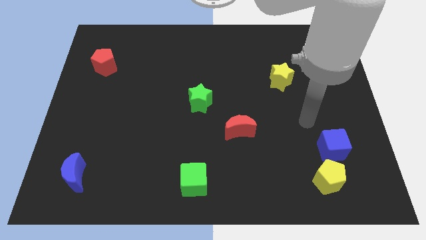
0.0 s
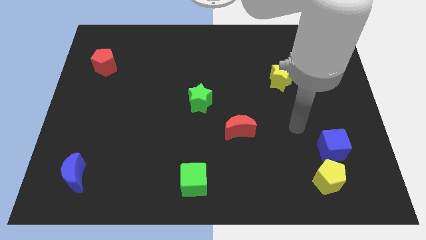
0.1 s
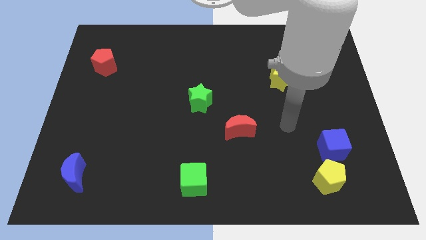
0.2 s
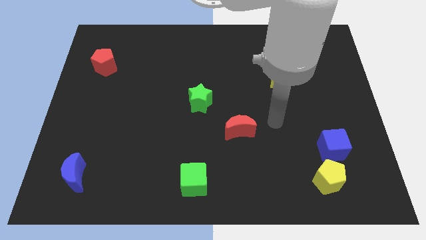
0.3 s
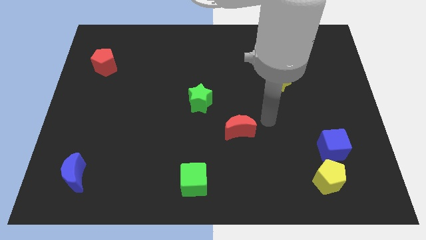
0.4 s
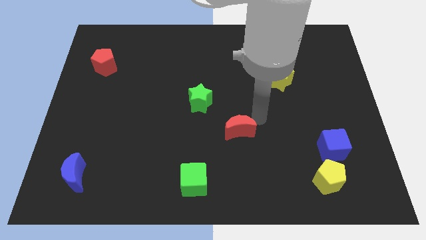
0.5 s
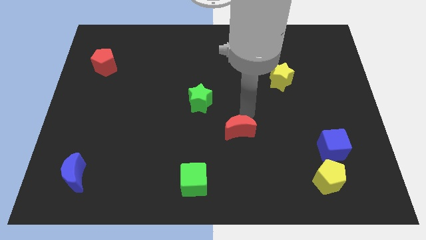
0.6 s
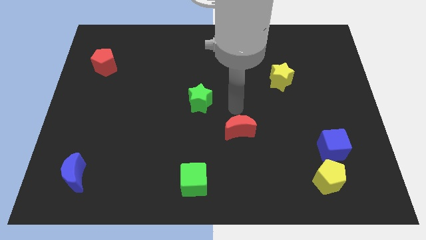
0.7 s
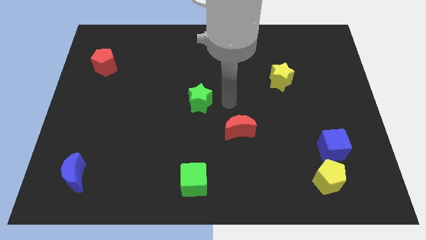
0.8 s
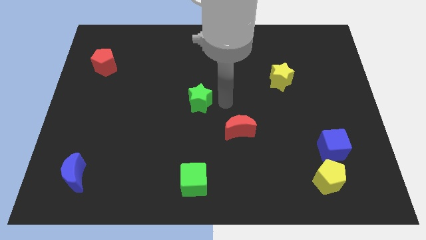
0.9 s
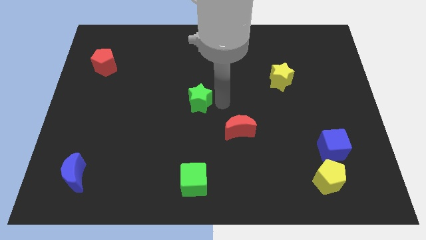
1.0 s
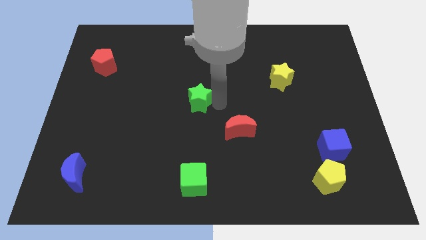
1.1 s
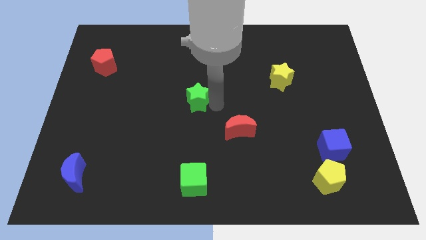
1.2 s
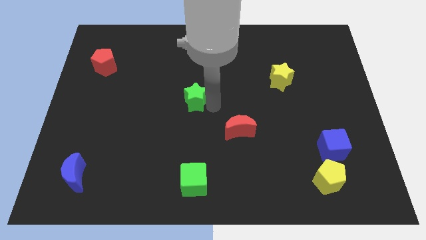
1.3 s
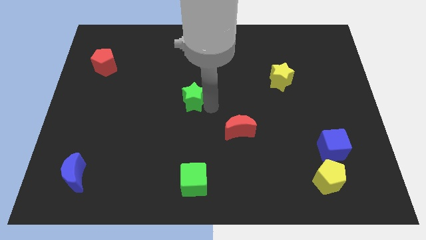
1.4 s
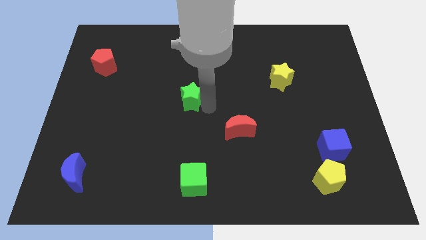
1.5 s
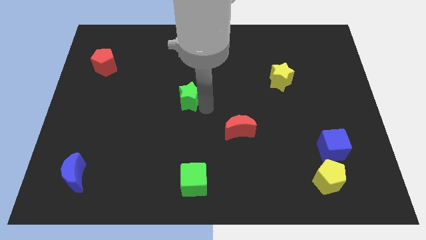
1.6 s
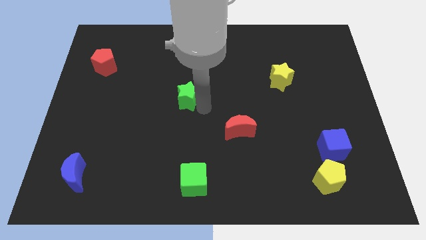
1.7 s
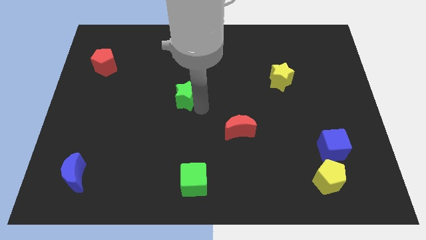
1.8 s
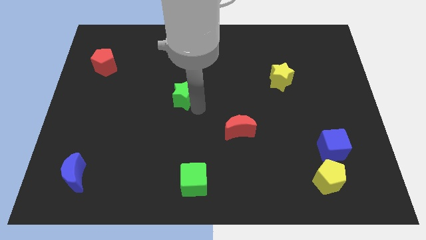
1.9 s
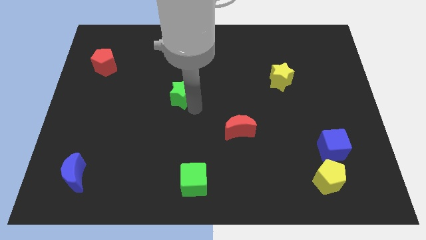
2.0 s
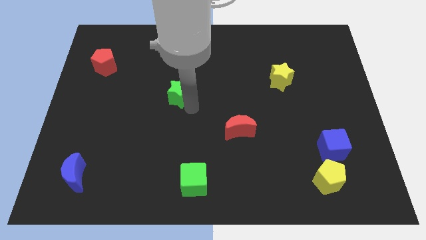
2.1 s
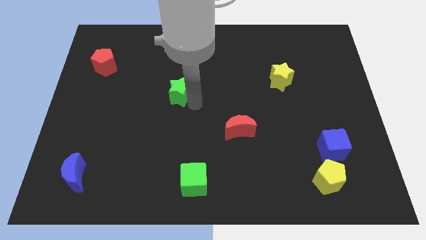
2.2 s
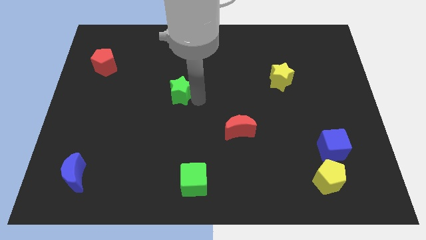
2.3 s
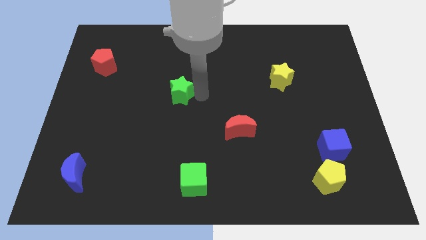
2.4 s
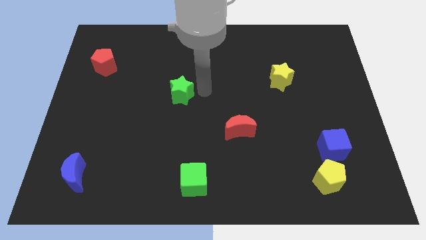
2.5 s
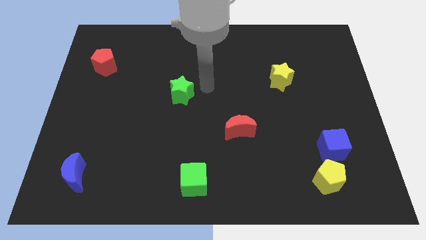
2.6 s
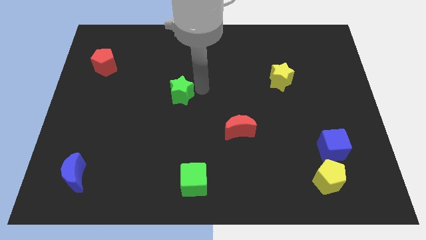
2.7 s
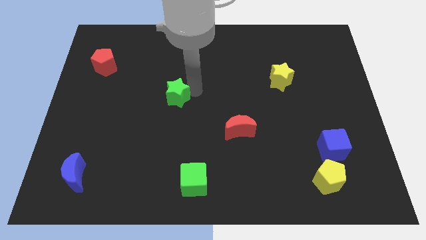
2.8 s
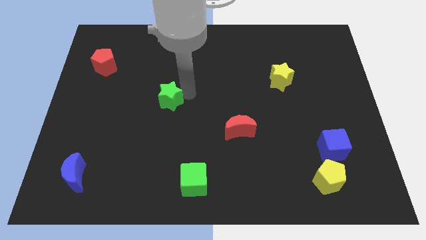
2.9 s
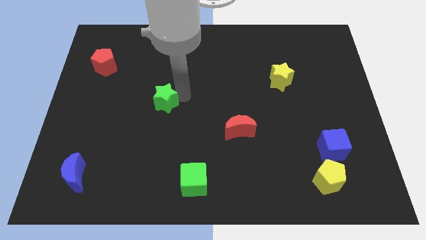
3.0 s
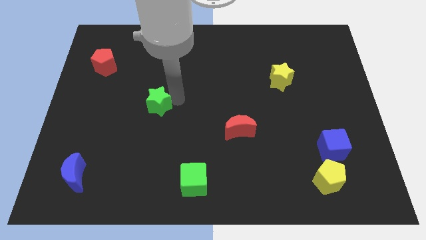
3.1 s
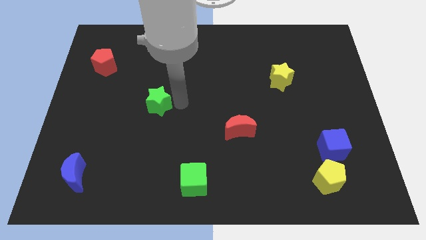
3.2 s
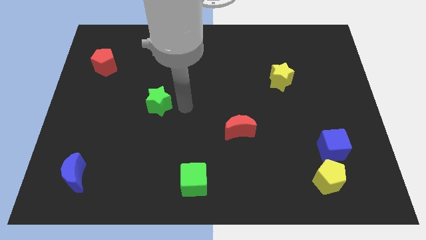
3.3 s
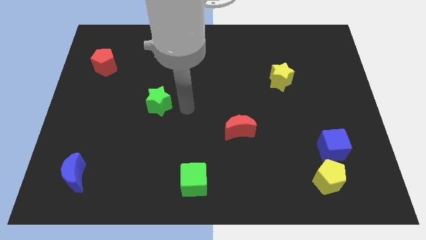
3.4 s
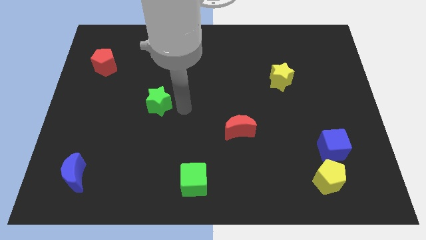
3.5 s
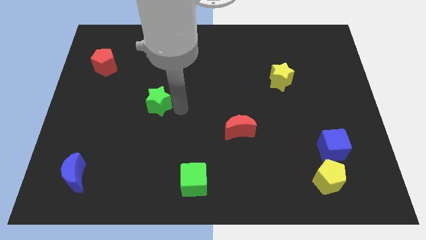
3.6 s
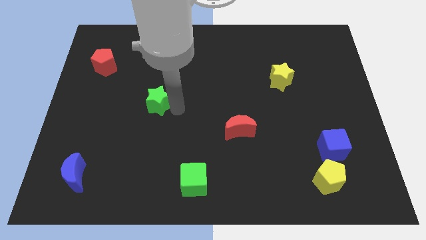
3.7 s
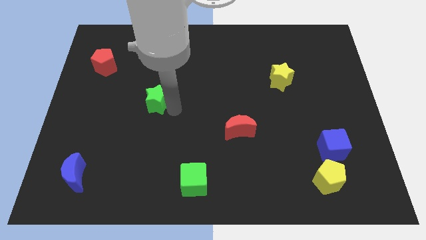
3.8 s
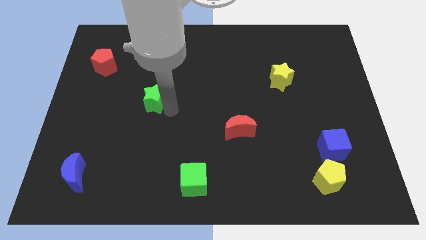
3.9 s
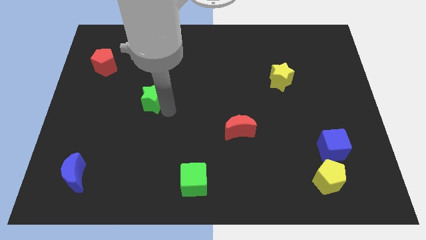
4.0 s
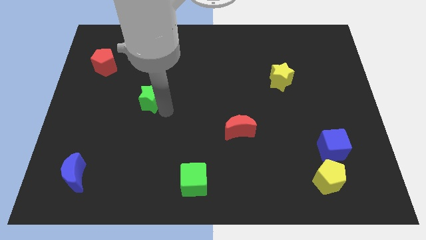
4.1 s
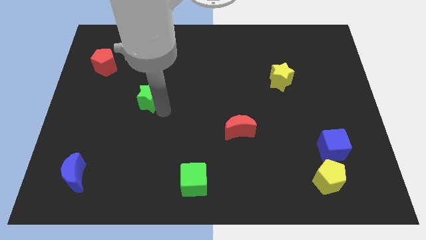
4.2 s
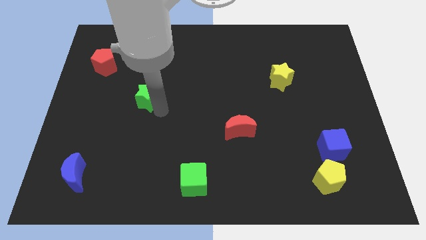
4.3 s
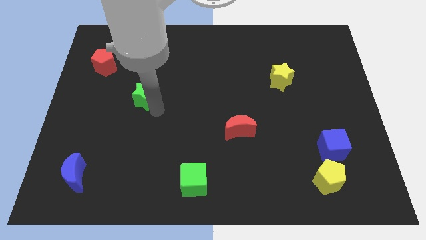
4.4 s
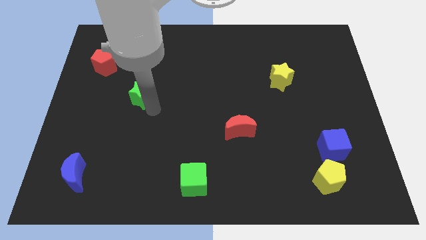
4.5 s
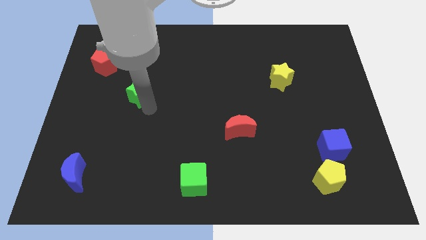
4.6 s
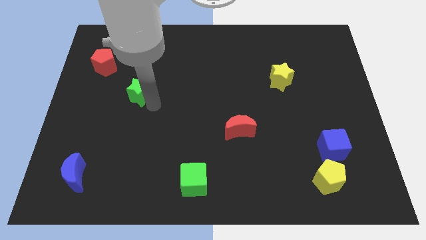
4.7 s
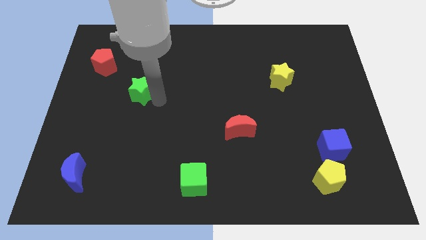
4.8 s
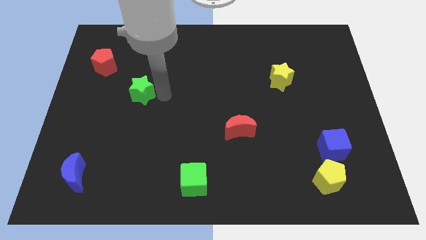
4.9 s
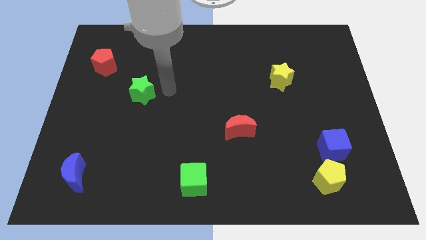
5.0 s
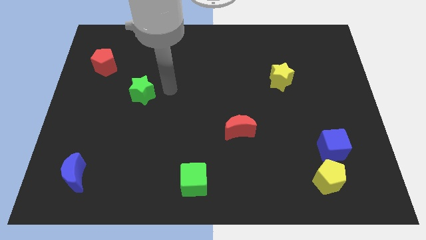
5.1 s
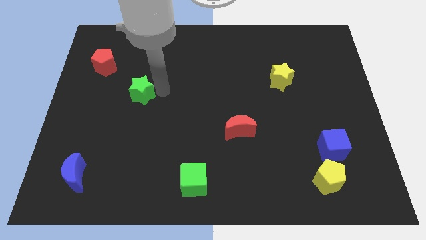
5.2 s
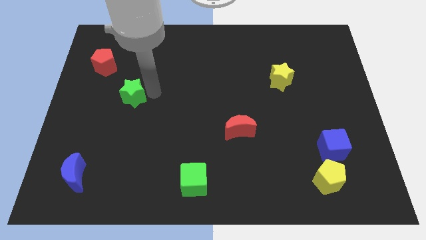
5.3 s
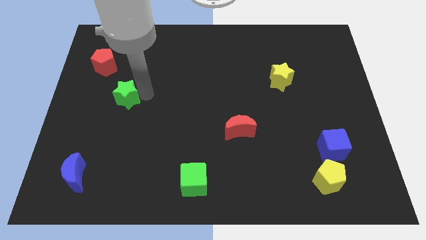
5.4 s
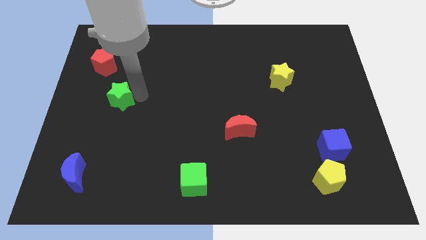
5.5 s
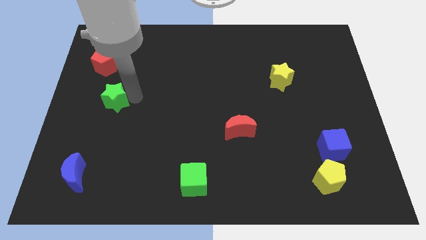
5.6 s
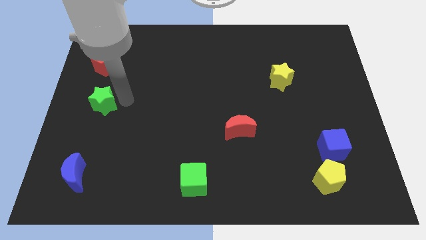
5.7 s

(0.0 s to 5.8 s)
slide the green star to the left side

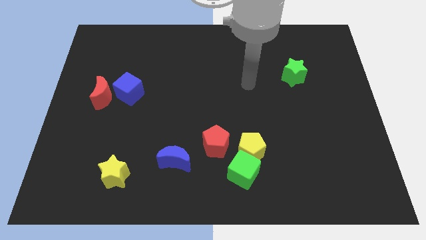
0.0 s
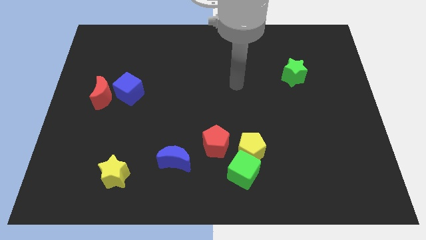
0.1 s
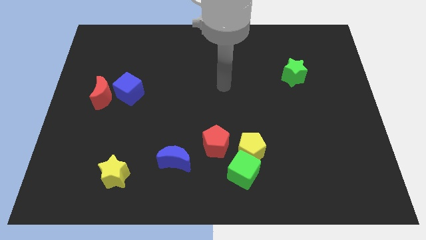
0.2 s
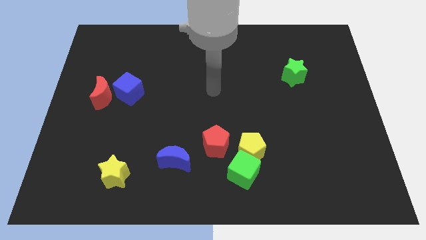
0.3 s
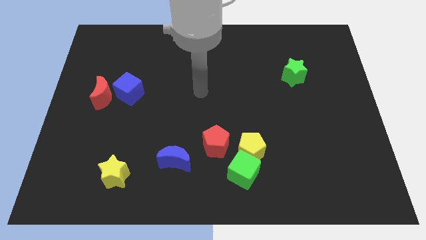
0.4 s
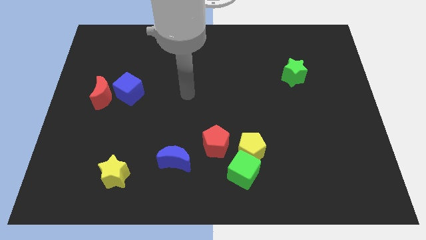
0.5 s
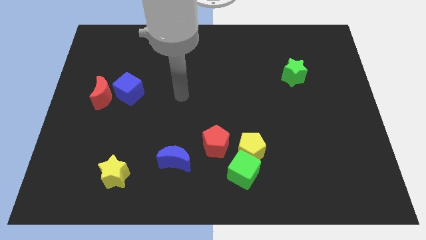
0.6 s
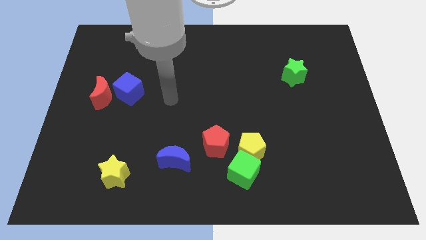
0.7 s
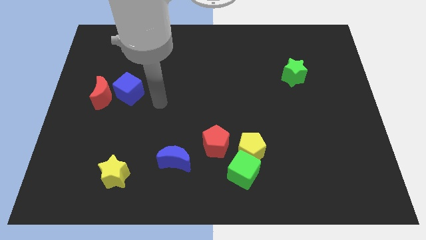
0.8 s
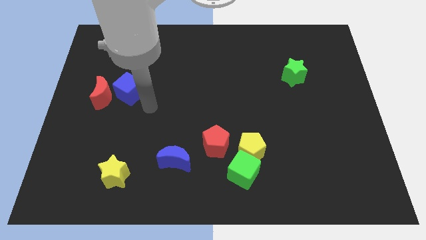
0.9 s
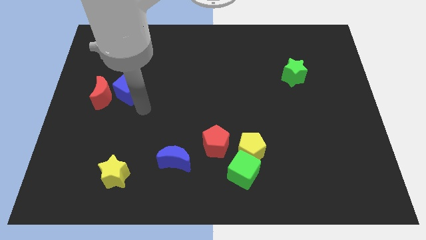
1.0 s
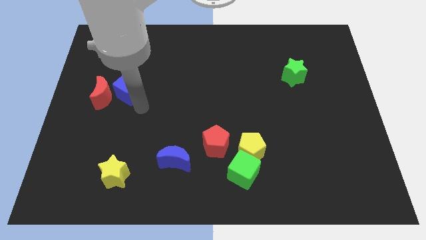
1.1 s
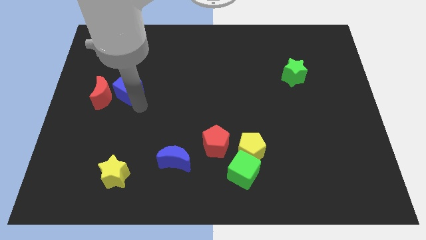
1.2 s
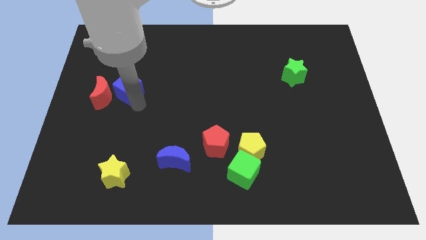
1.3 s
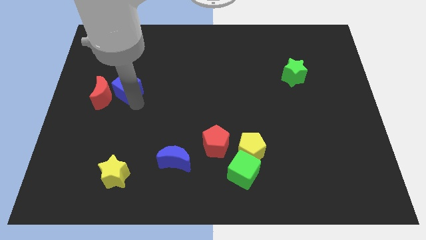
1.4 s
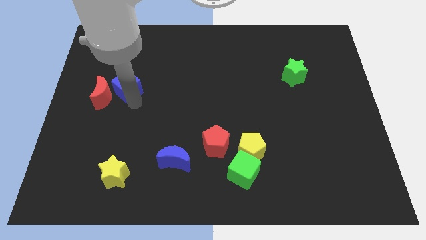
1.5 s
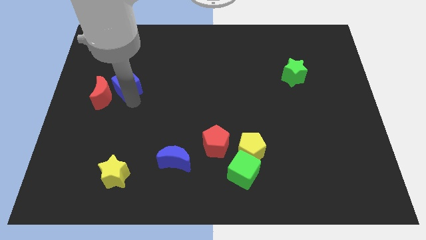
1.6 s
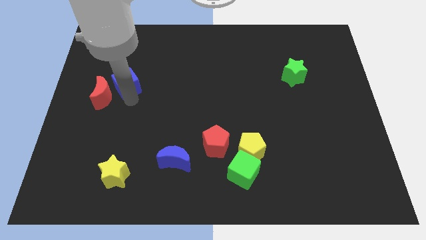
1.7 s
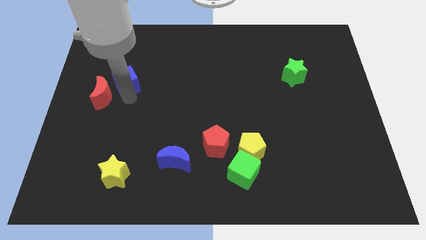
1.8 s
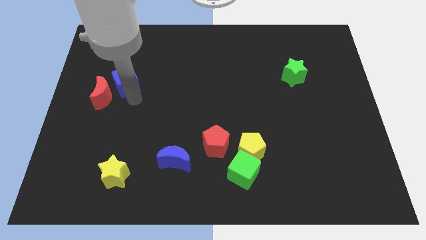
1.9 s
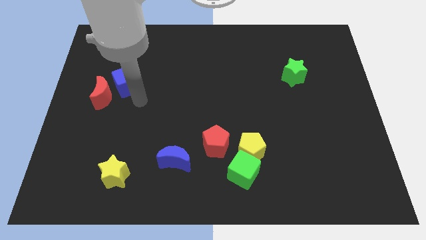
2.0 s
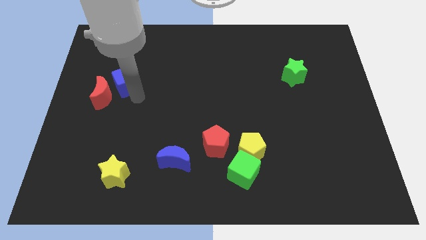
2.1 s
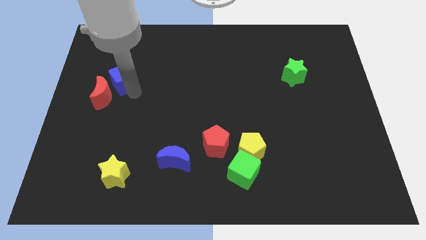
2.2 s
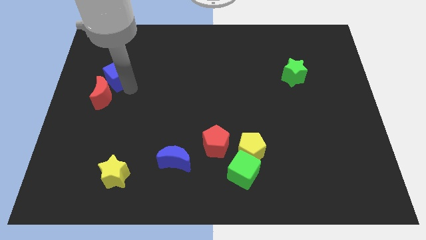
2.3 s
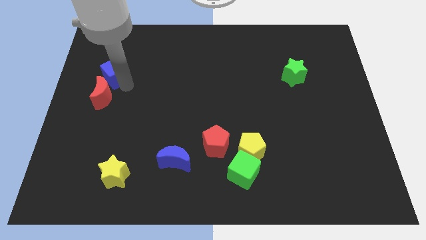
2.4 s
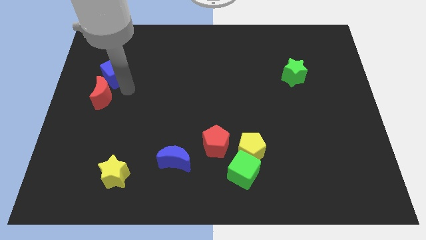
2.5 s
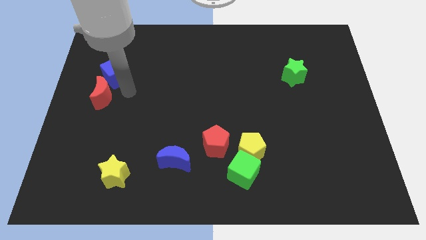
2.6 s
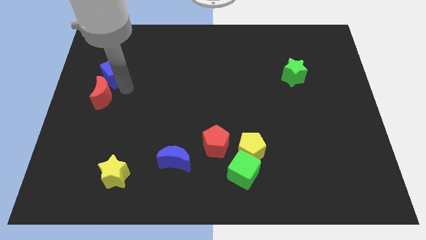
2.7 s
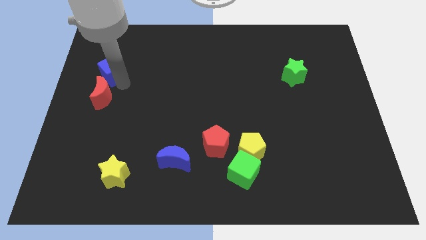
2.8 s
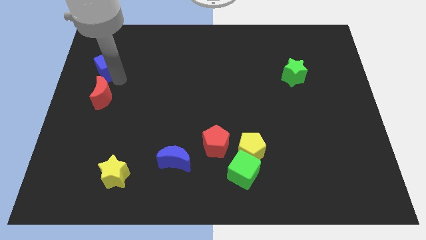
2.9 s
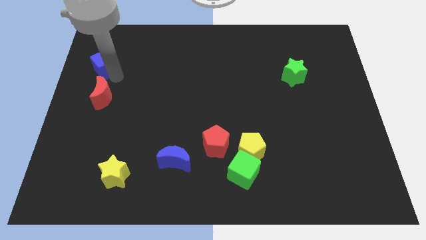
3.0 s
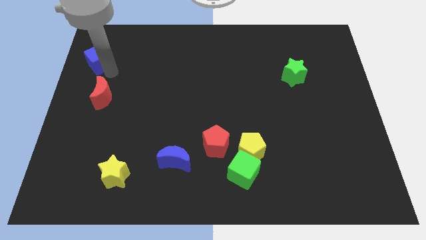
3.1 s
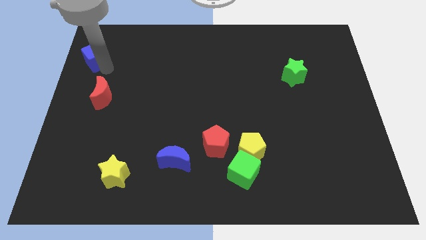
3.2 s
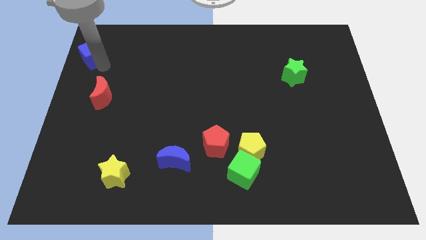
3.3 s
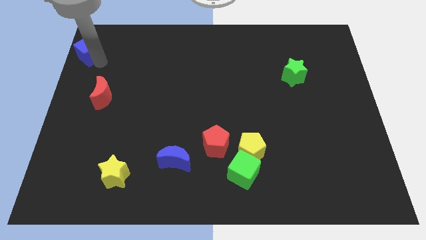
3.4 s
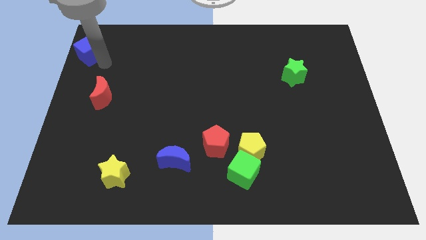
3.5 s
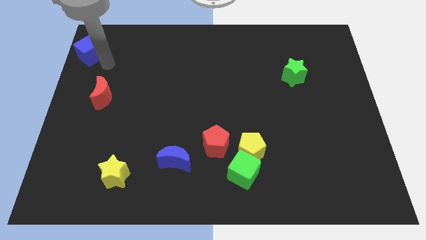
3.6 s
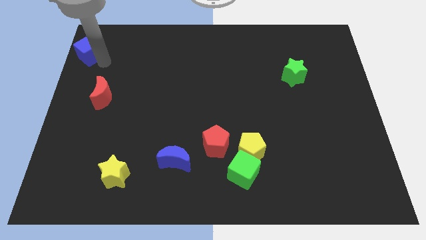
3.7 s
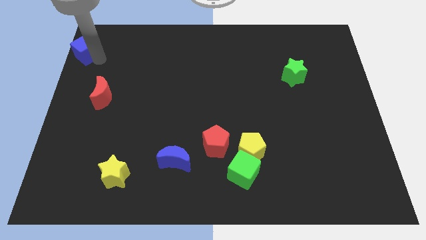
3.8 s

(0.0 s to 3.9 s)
slide the blue cube to the top left corner
